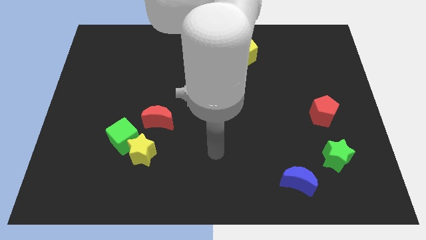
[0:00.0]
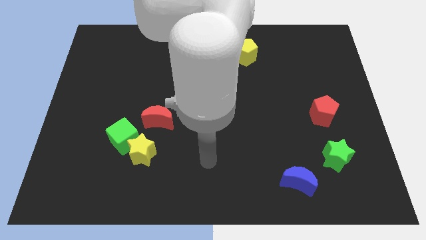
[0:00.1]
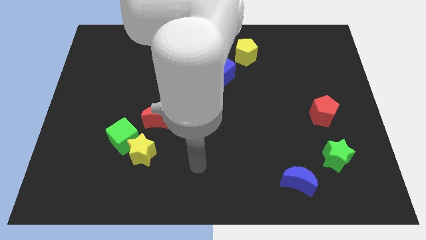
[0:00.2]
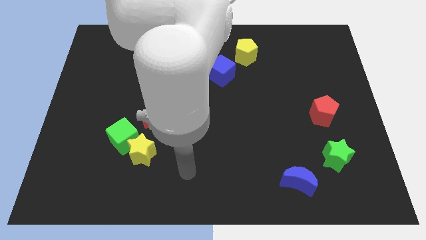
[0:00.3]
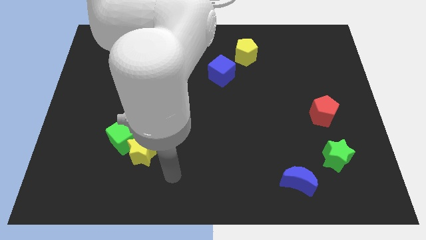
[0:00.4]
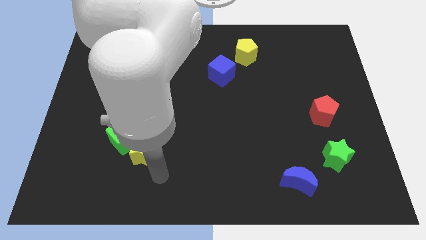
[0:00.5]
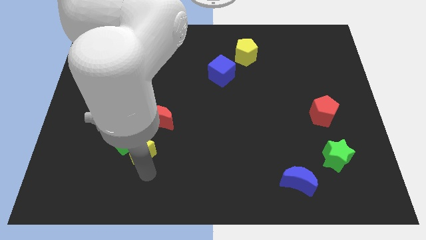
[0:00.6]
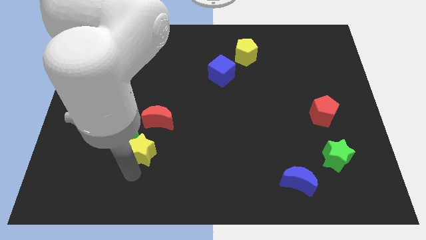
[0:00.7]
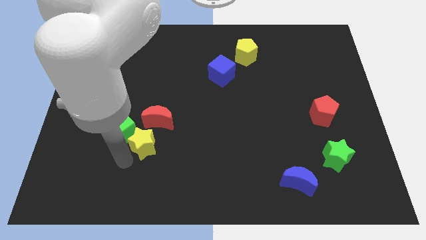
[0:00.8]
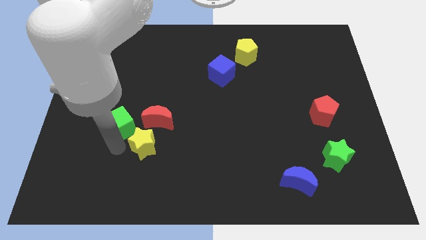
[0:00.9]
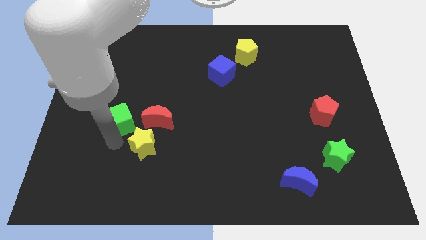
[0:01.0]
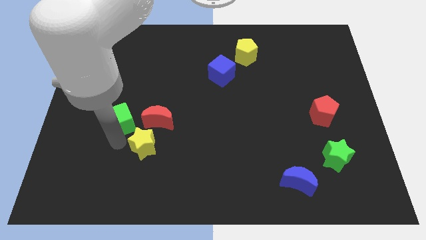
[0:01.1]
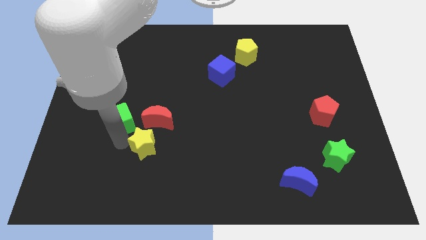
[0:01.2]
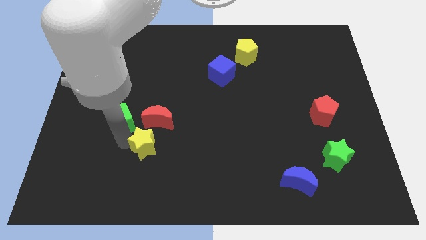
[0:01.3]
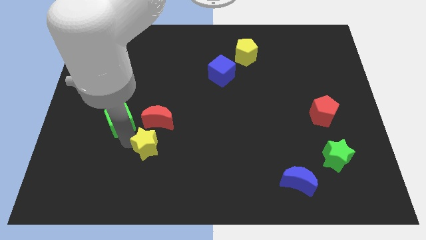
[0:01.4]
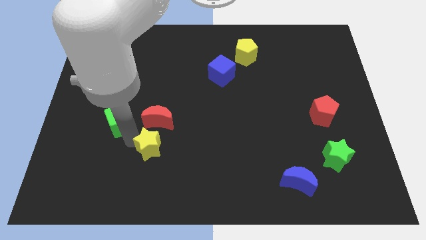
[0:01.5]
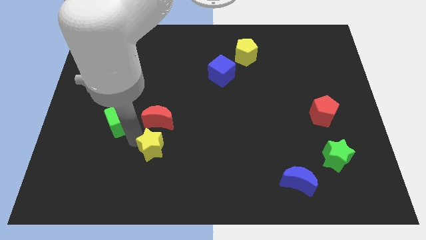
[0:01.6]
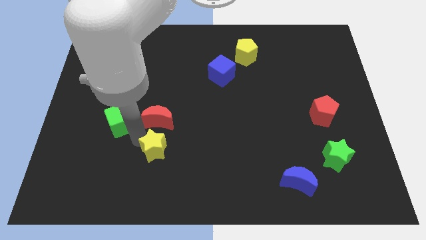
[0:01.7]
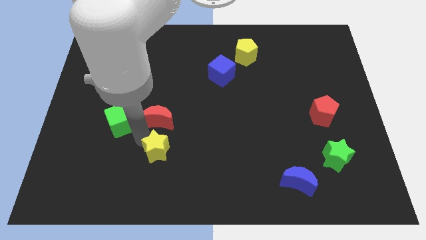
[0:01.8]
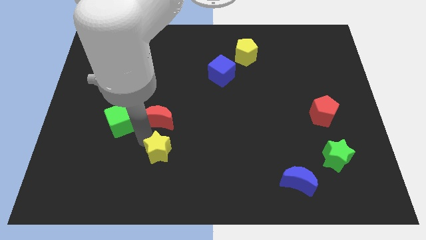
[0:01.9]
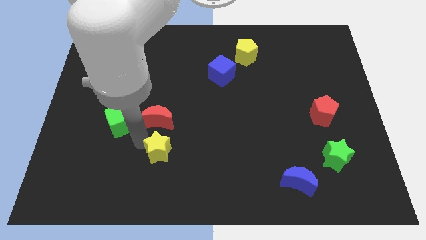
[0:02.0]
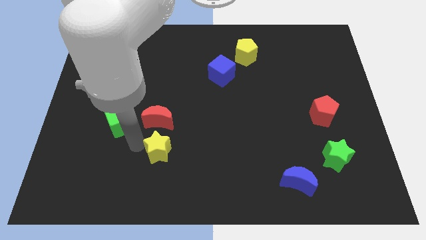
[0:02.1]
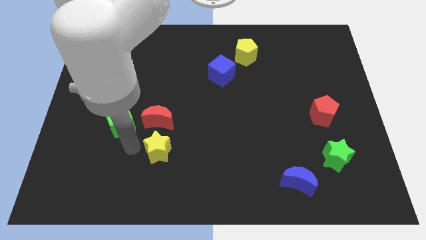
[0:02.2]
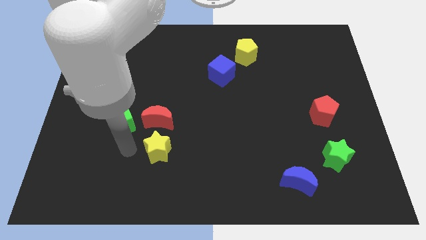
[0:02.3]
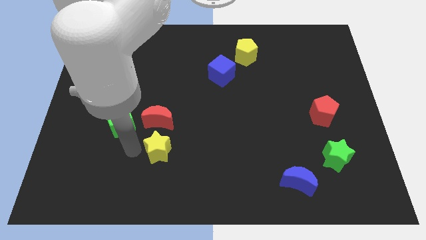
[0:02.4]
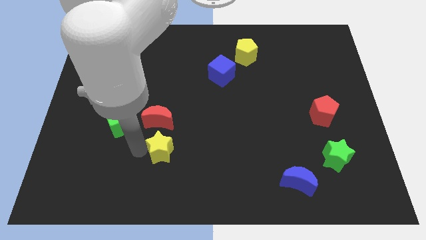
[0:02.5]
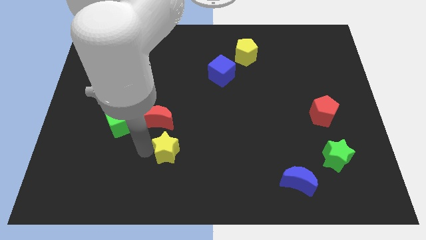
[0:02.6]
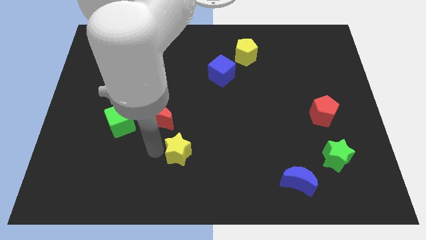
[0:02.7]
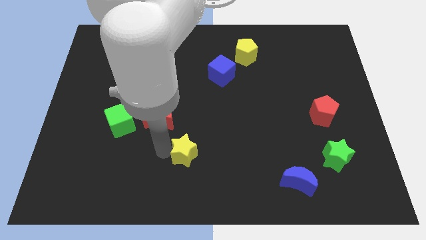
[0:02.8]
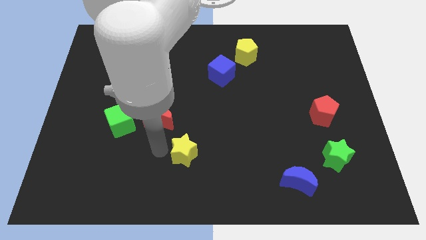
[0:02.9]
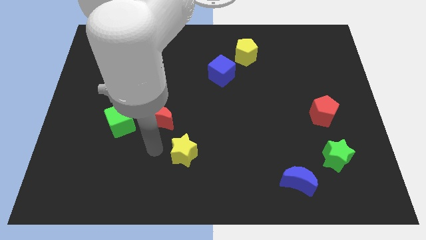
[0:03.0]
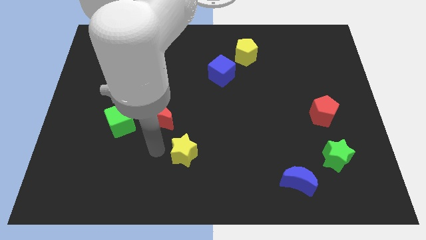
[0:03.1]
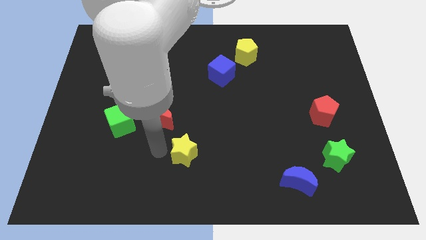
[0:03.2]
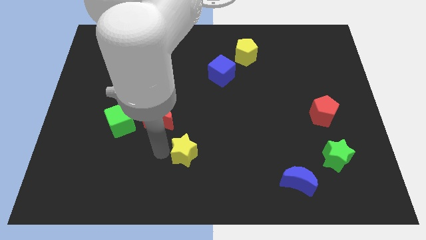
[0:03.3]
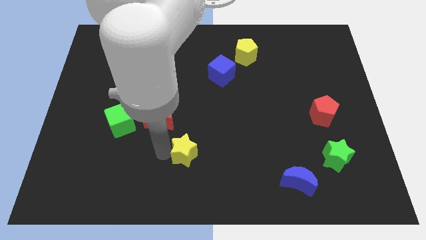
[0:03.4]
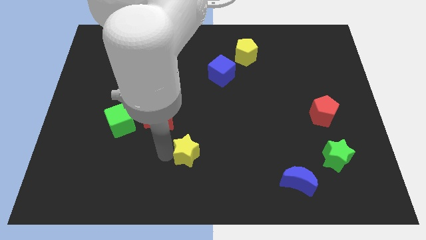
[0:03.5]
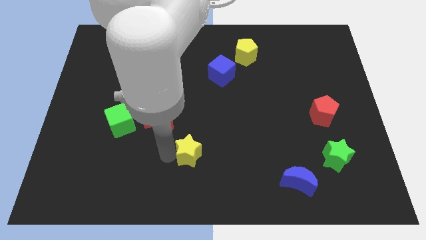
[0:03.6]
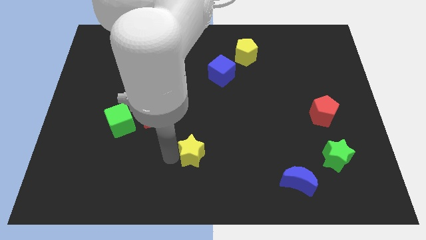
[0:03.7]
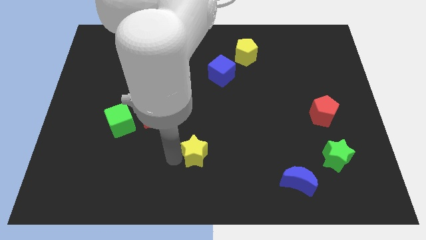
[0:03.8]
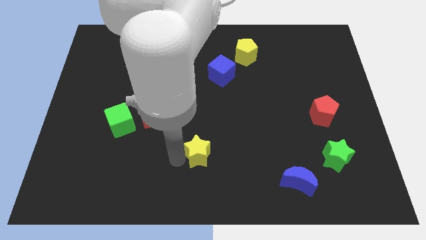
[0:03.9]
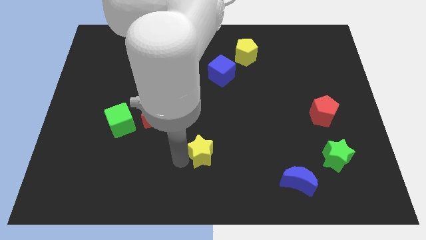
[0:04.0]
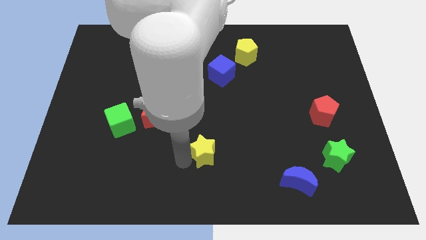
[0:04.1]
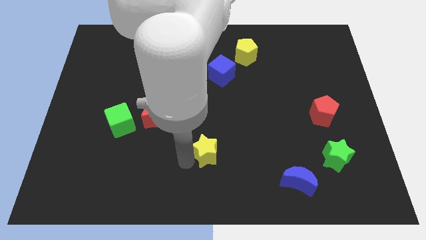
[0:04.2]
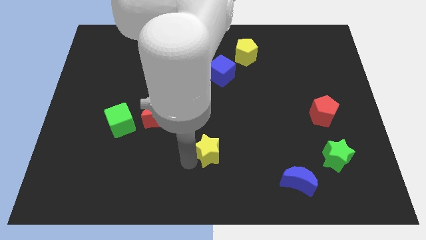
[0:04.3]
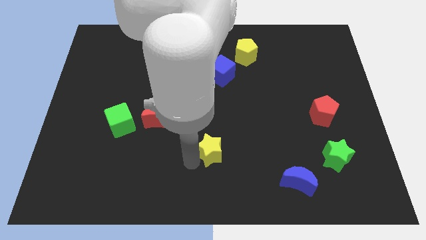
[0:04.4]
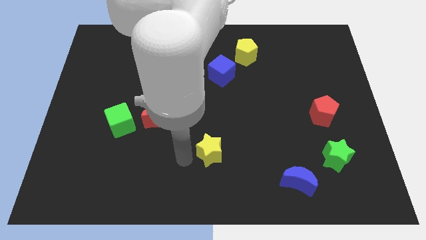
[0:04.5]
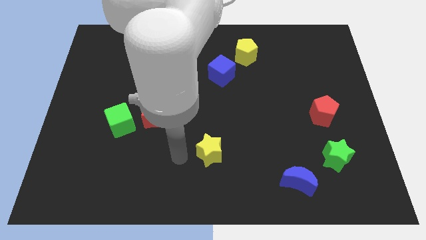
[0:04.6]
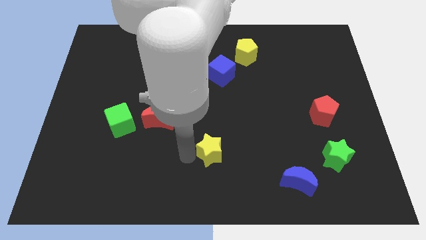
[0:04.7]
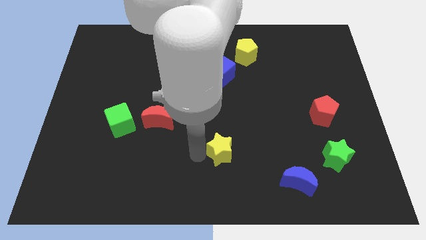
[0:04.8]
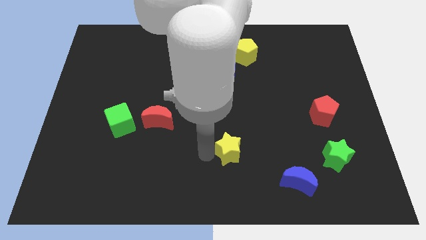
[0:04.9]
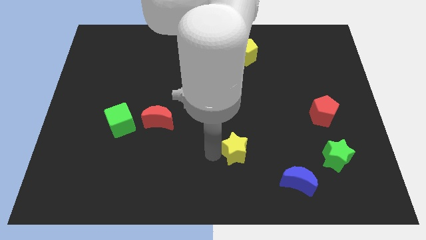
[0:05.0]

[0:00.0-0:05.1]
move the yellow star to the right

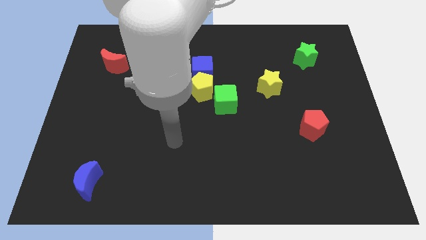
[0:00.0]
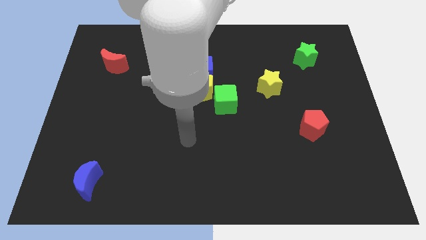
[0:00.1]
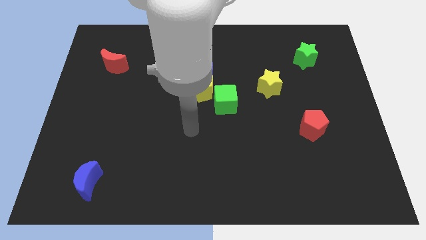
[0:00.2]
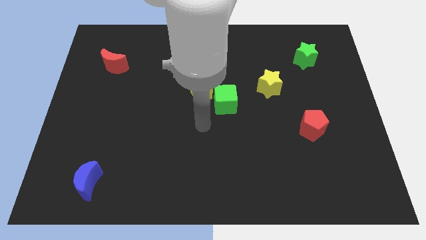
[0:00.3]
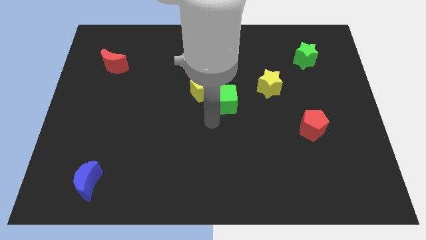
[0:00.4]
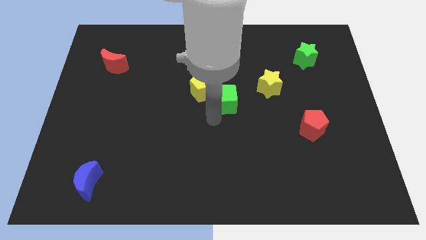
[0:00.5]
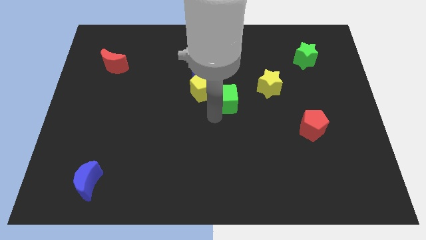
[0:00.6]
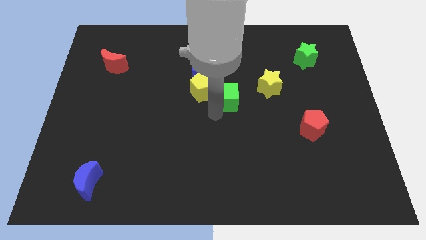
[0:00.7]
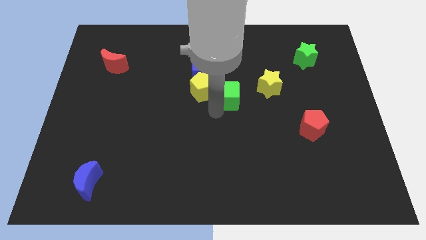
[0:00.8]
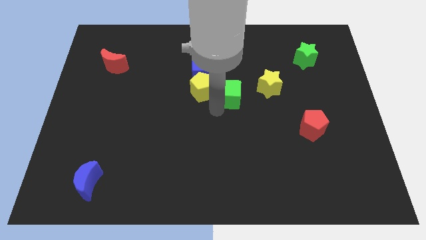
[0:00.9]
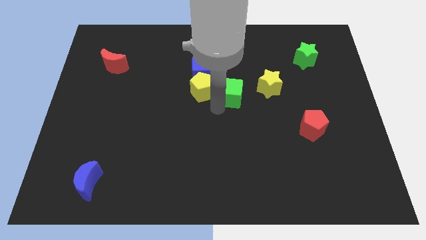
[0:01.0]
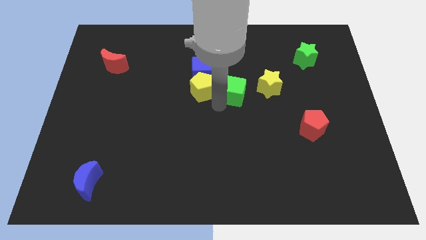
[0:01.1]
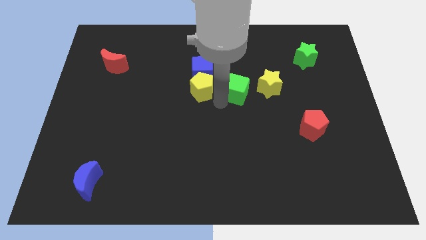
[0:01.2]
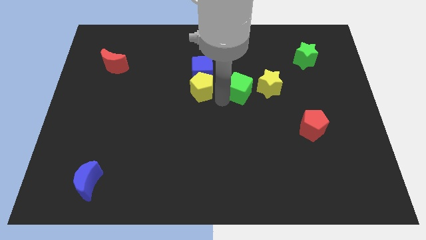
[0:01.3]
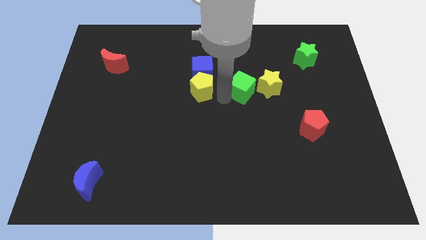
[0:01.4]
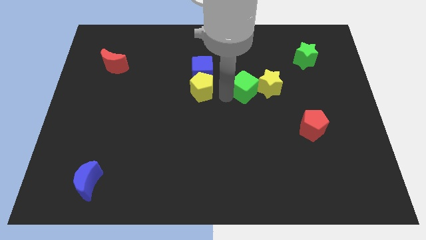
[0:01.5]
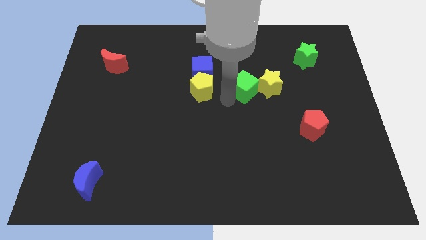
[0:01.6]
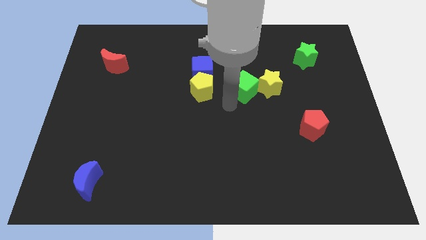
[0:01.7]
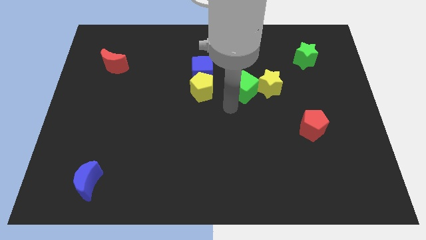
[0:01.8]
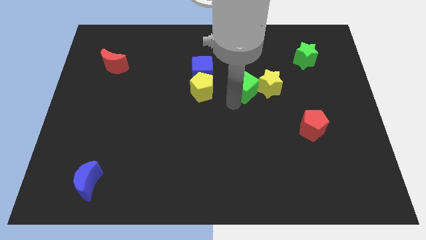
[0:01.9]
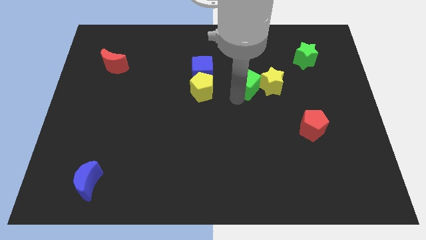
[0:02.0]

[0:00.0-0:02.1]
move the green cube up and right a little bit

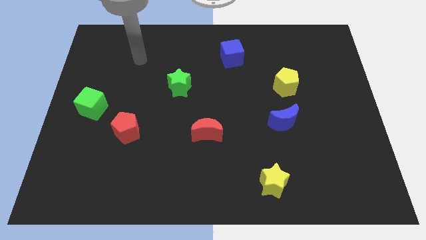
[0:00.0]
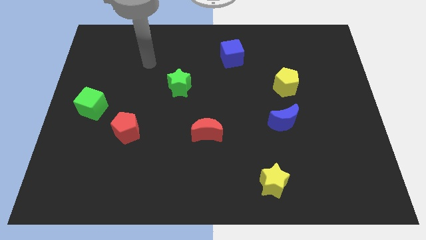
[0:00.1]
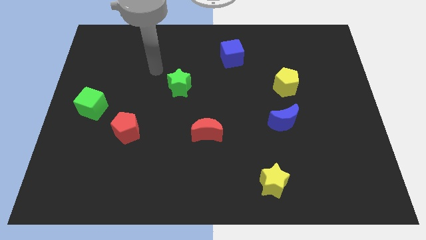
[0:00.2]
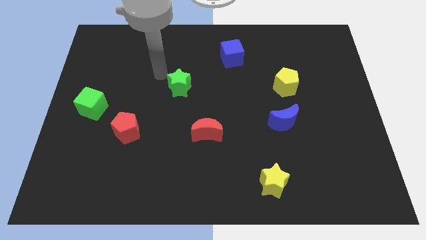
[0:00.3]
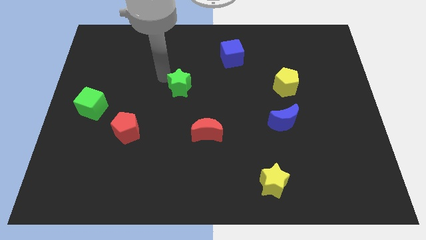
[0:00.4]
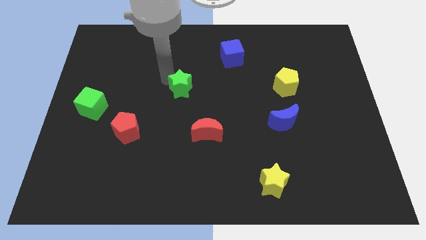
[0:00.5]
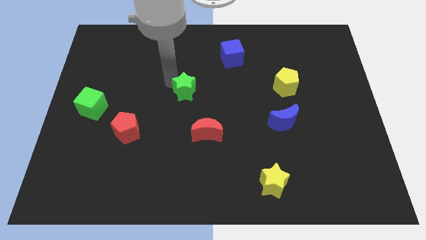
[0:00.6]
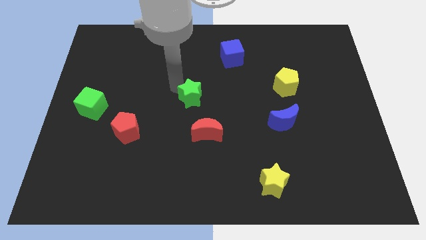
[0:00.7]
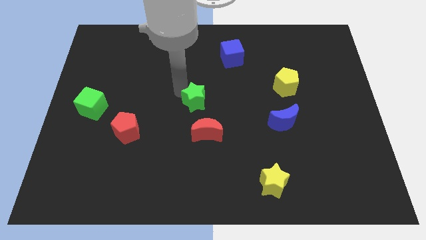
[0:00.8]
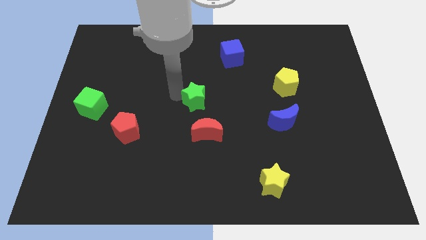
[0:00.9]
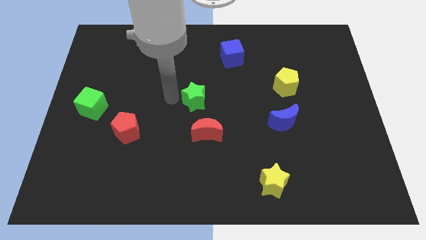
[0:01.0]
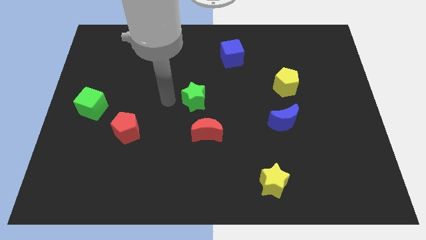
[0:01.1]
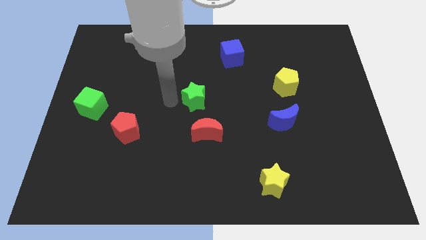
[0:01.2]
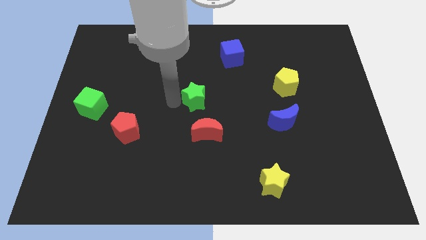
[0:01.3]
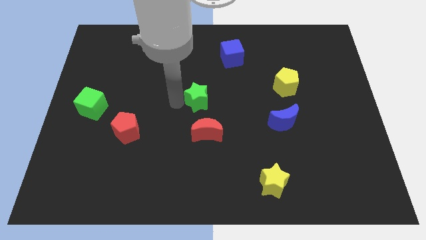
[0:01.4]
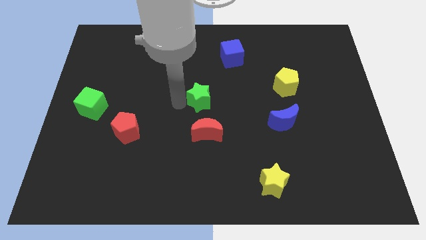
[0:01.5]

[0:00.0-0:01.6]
move the green star diagonally downwards and to the right a little

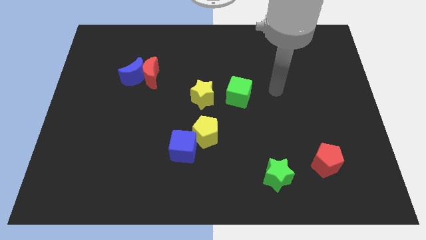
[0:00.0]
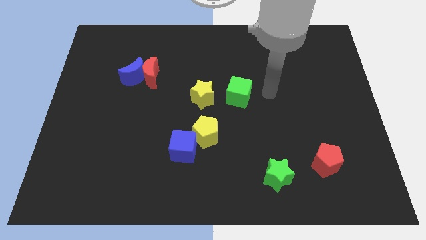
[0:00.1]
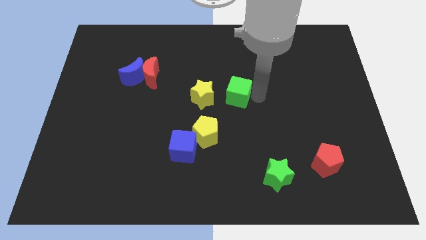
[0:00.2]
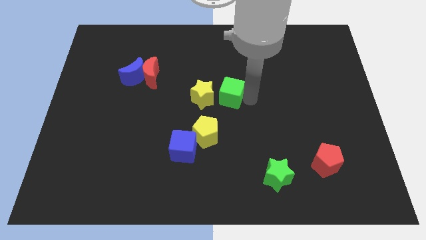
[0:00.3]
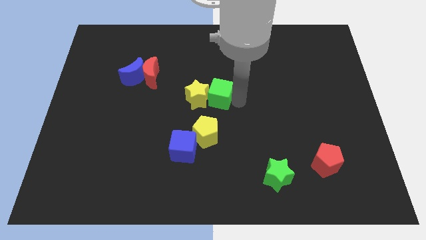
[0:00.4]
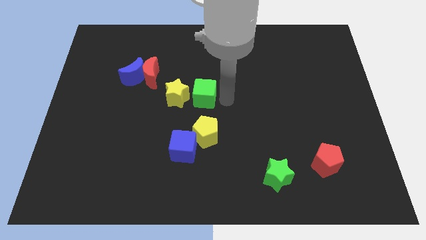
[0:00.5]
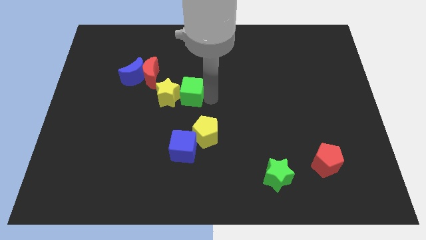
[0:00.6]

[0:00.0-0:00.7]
slightly push the yellow star left
